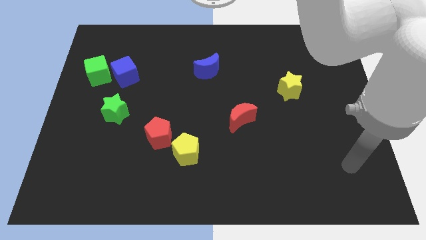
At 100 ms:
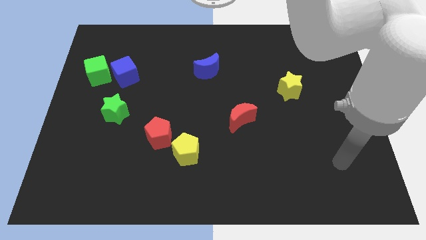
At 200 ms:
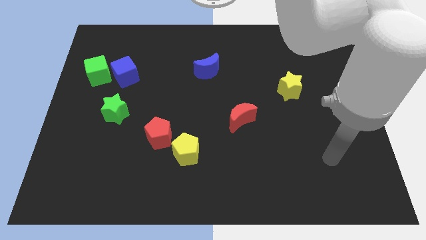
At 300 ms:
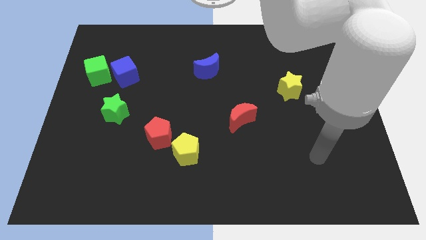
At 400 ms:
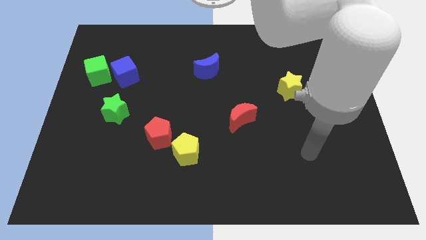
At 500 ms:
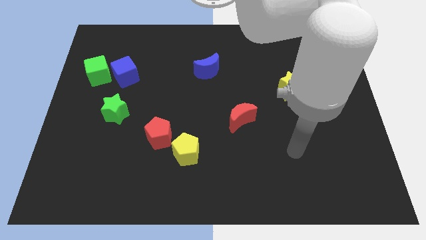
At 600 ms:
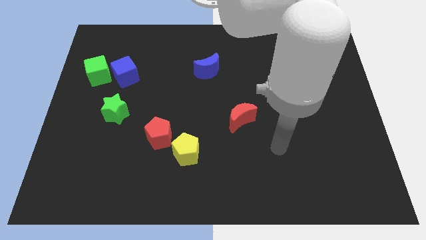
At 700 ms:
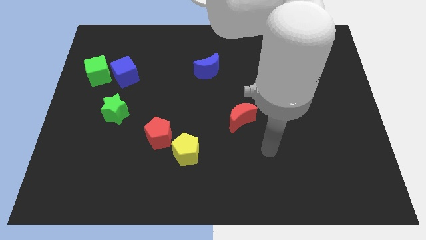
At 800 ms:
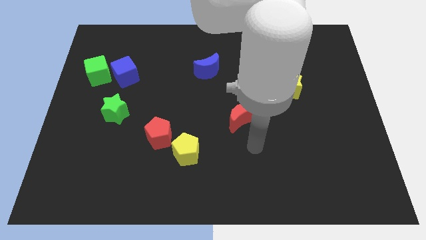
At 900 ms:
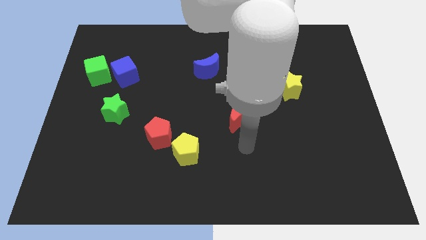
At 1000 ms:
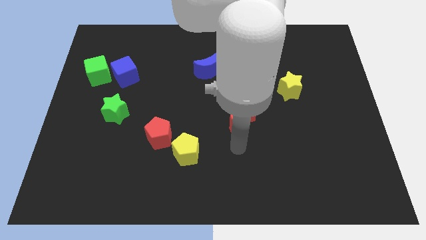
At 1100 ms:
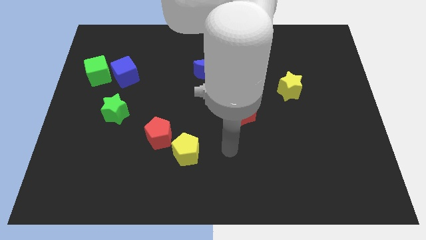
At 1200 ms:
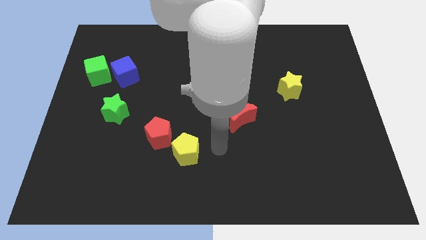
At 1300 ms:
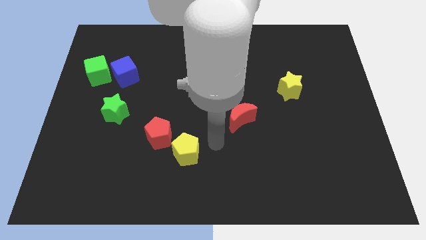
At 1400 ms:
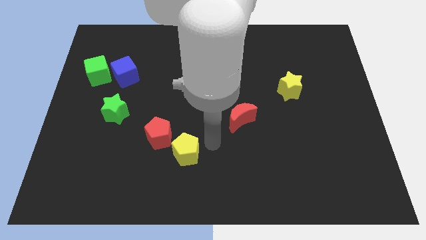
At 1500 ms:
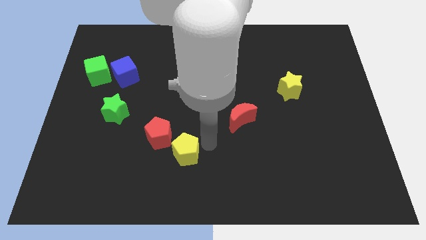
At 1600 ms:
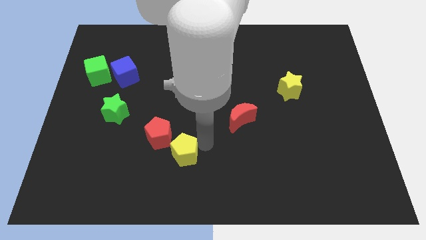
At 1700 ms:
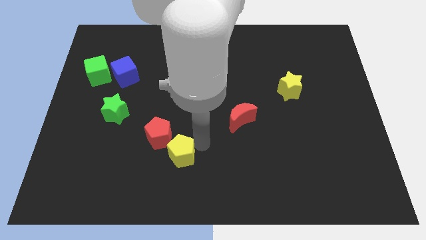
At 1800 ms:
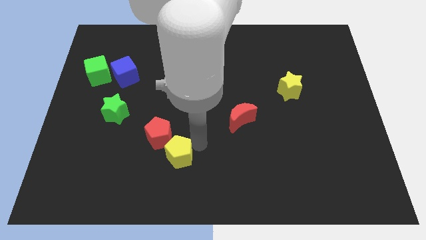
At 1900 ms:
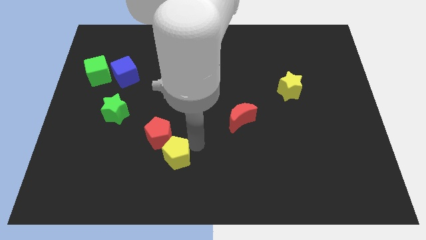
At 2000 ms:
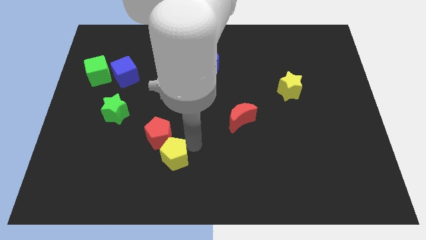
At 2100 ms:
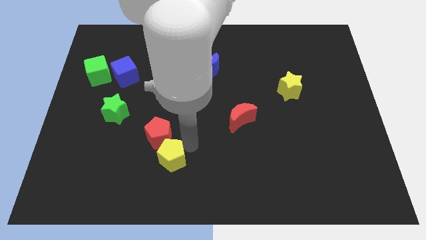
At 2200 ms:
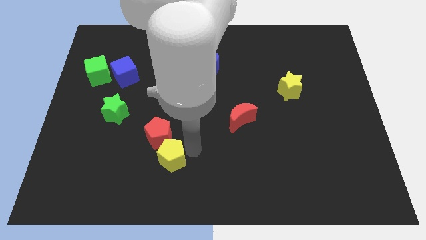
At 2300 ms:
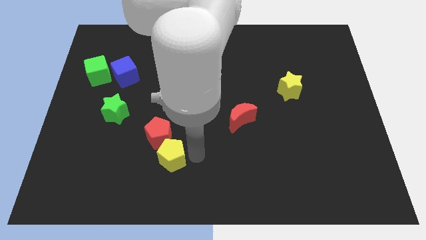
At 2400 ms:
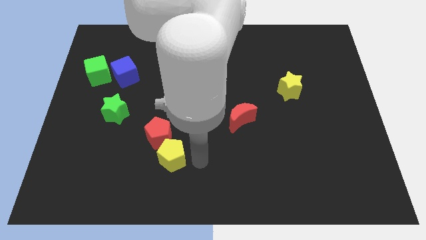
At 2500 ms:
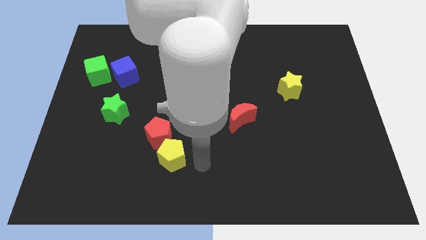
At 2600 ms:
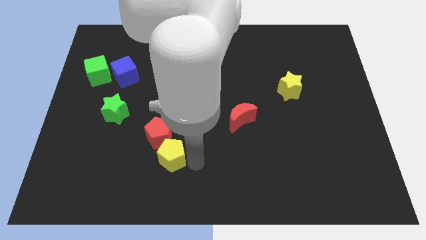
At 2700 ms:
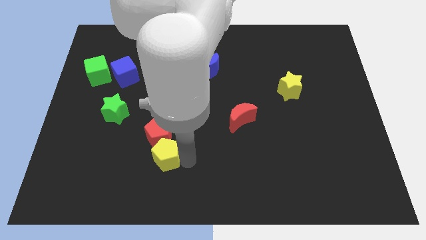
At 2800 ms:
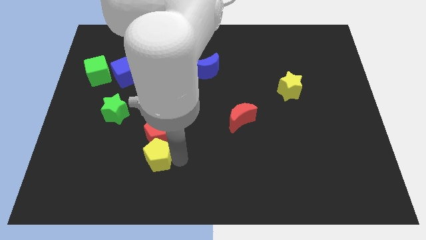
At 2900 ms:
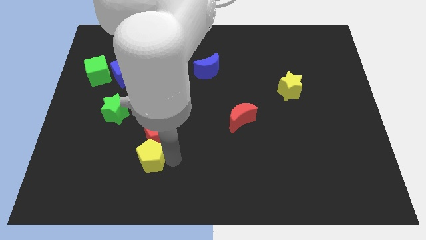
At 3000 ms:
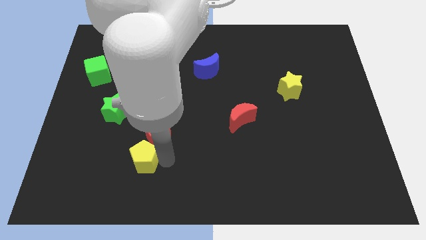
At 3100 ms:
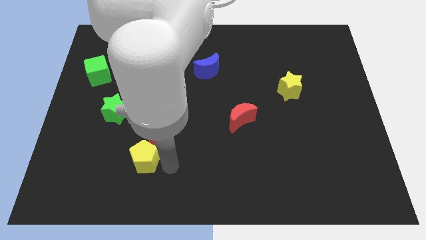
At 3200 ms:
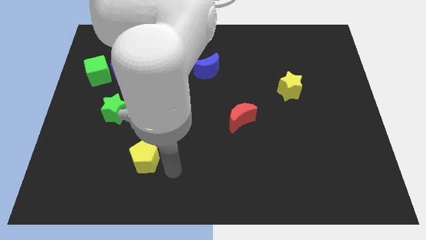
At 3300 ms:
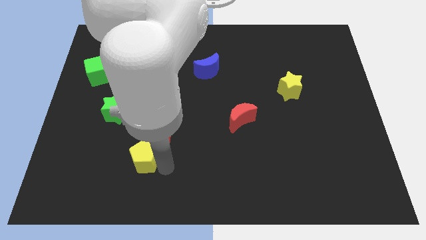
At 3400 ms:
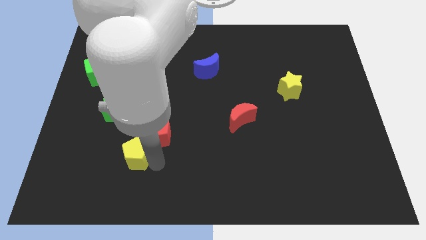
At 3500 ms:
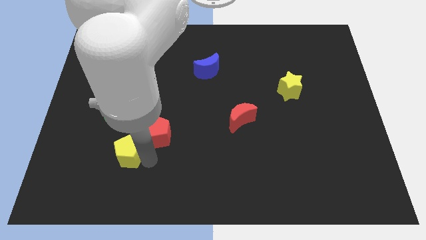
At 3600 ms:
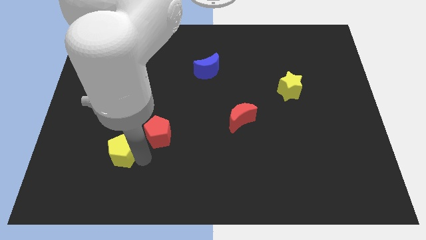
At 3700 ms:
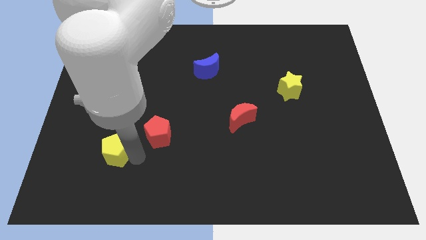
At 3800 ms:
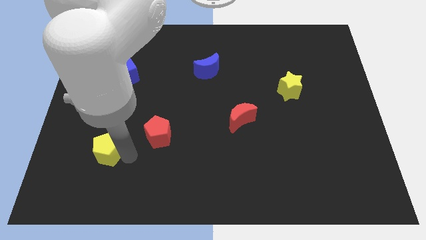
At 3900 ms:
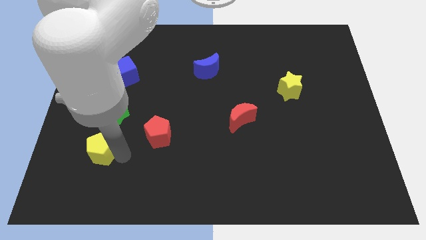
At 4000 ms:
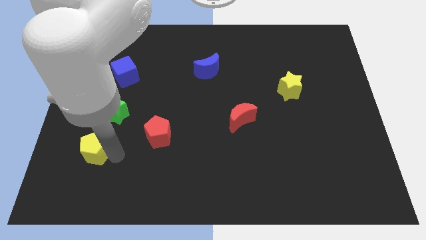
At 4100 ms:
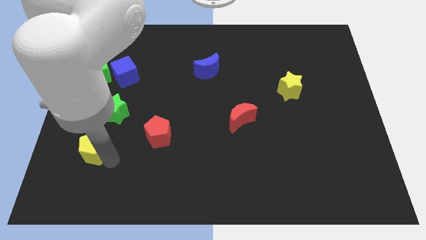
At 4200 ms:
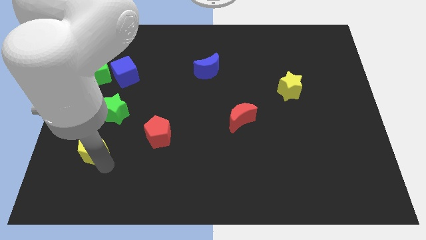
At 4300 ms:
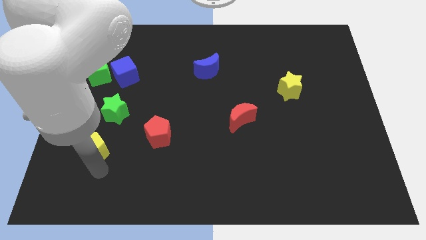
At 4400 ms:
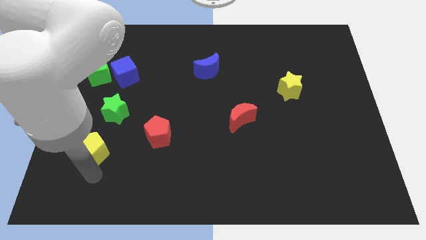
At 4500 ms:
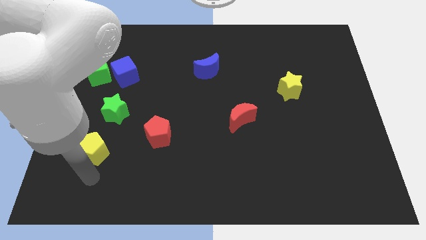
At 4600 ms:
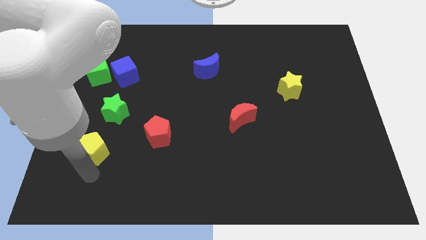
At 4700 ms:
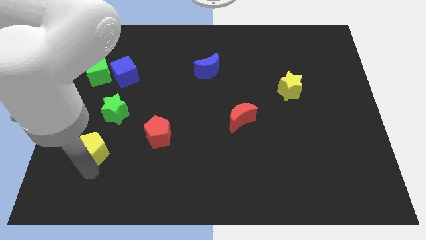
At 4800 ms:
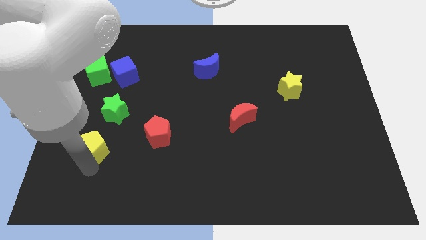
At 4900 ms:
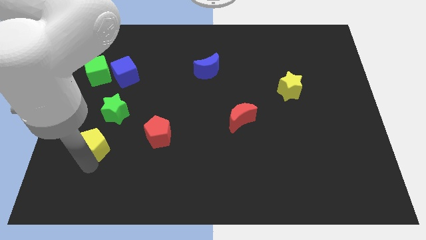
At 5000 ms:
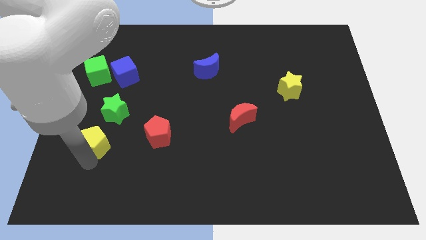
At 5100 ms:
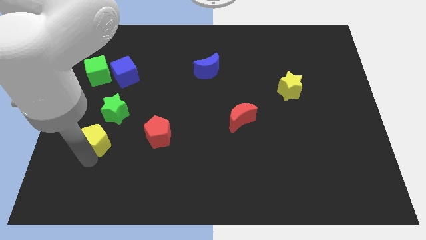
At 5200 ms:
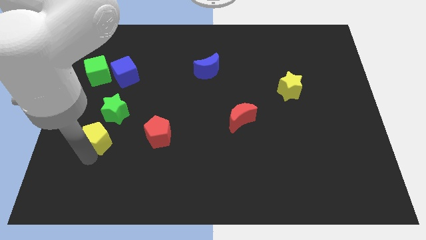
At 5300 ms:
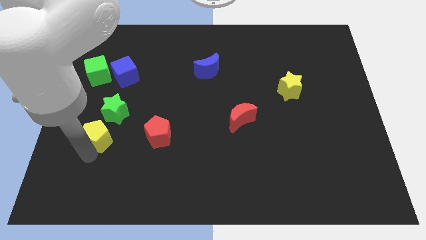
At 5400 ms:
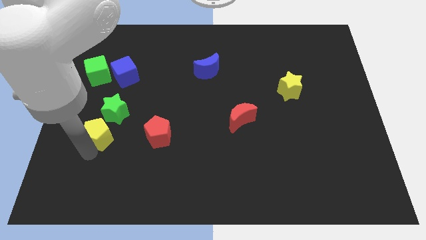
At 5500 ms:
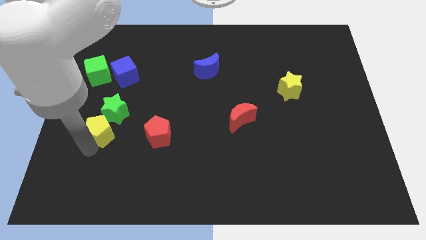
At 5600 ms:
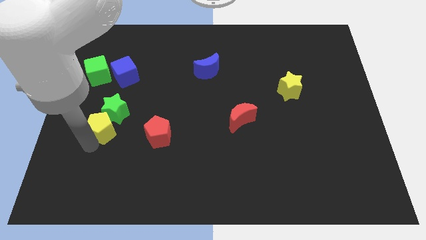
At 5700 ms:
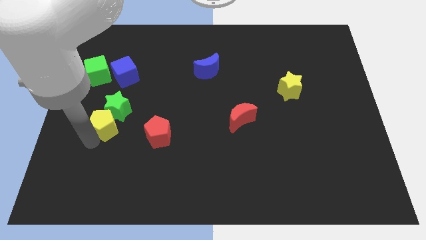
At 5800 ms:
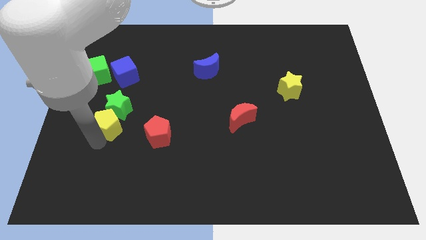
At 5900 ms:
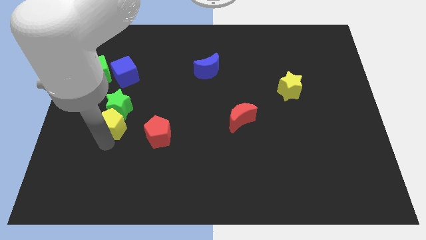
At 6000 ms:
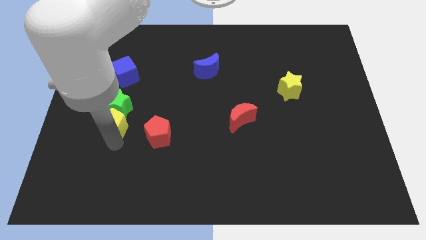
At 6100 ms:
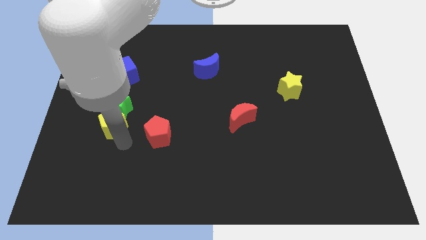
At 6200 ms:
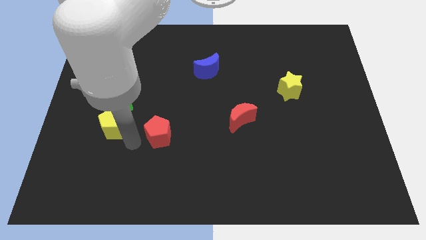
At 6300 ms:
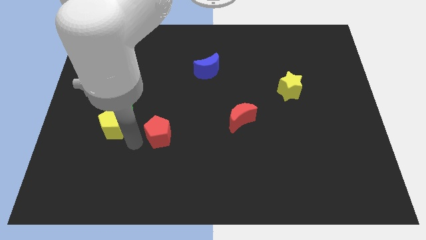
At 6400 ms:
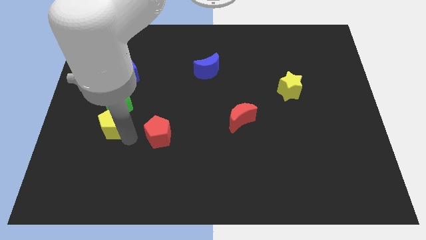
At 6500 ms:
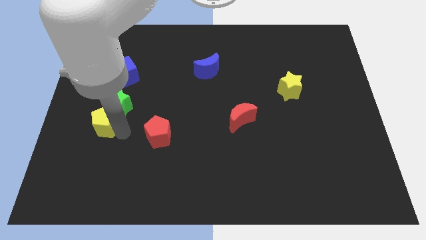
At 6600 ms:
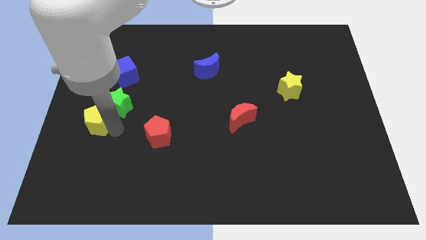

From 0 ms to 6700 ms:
slide the yellow pentagon to the bottom side of the green cube

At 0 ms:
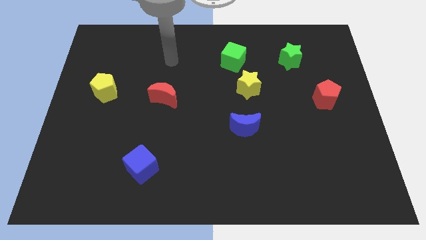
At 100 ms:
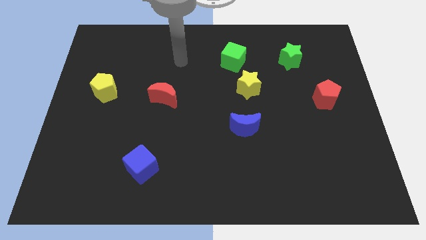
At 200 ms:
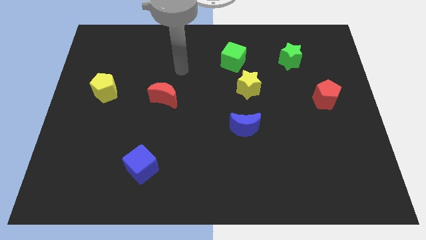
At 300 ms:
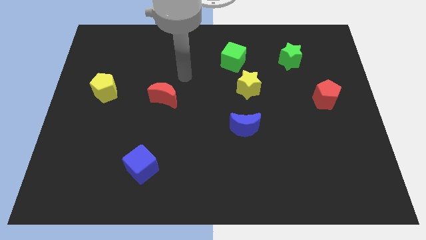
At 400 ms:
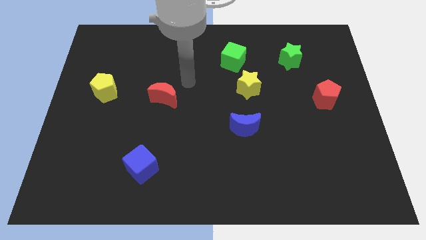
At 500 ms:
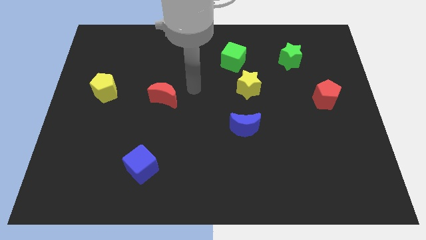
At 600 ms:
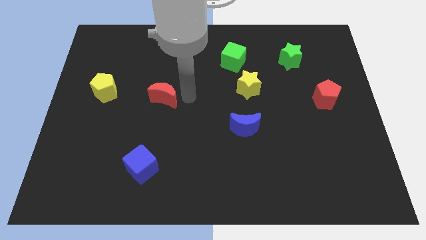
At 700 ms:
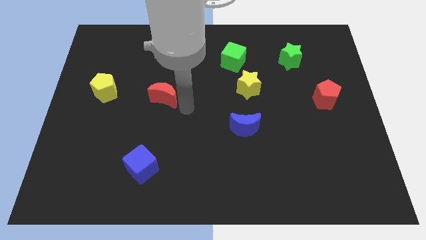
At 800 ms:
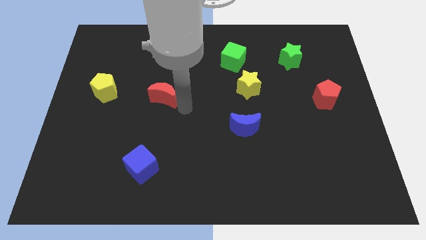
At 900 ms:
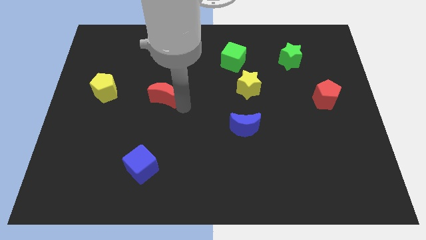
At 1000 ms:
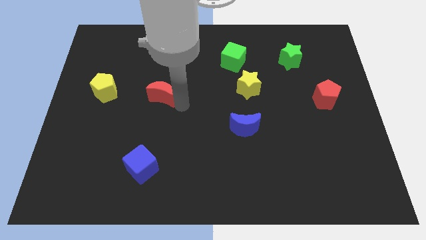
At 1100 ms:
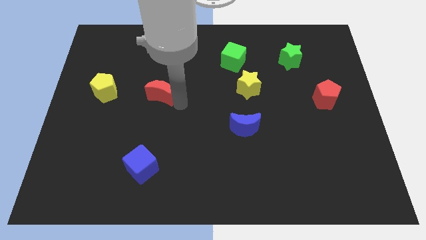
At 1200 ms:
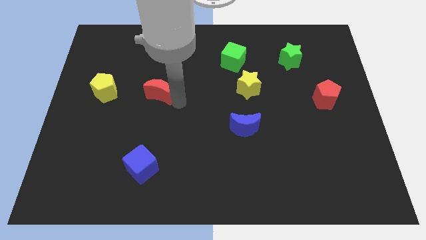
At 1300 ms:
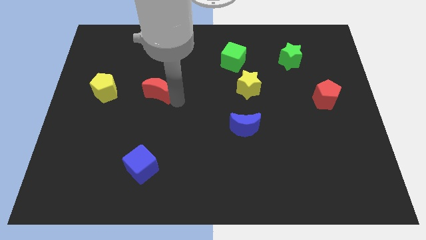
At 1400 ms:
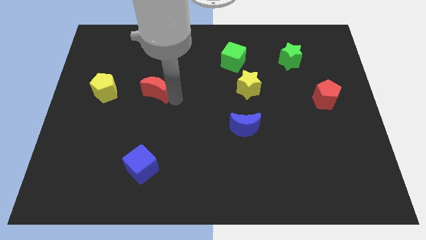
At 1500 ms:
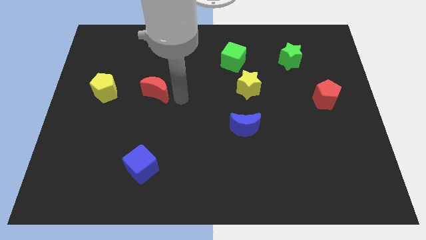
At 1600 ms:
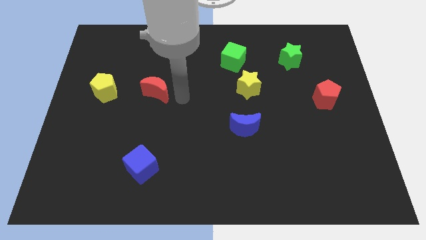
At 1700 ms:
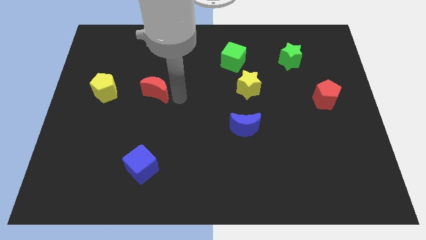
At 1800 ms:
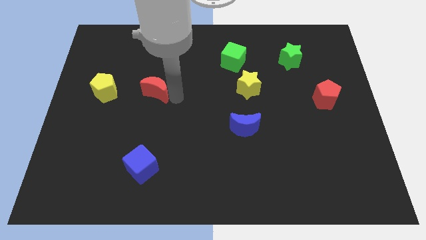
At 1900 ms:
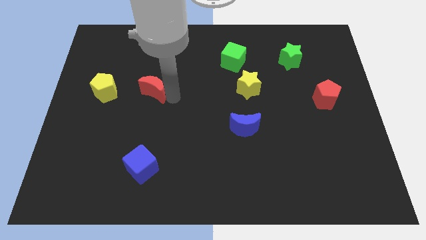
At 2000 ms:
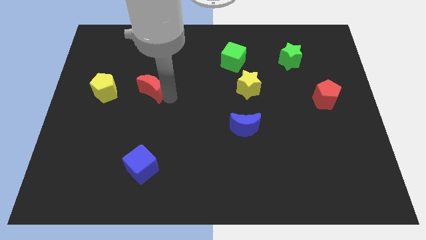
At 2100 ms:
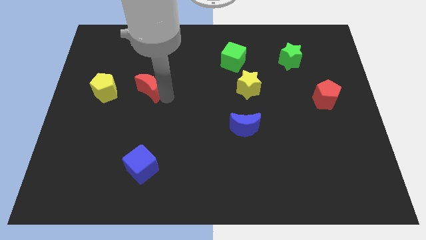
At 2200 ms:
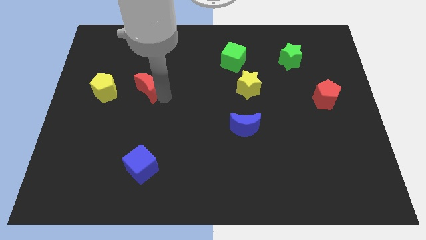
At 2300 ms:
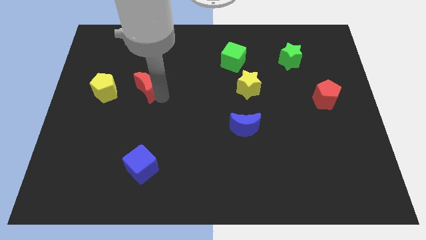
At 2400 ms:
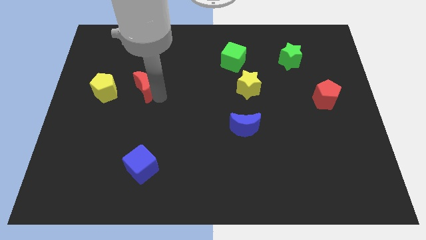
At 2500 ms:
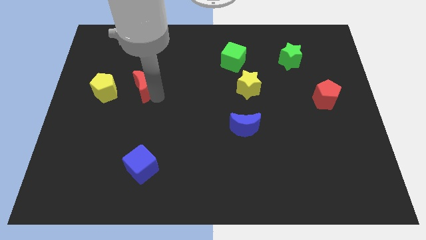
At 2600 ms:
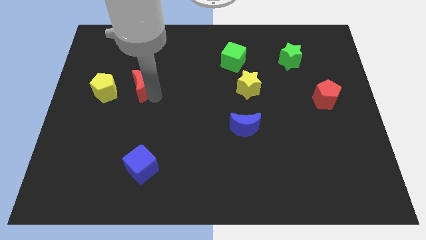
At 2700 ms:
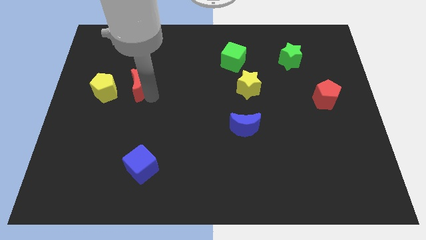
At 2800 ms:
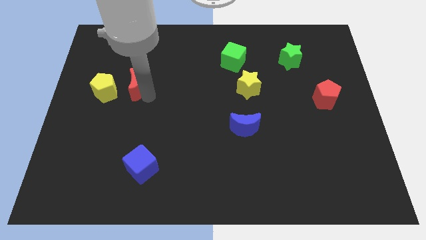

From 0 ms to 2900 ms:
push the red moon to the top right side of the yellow pentagon
